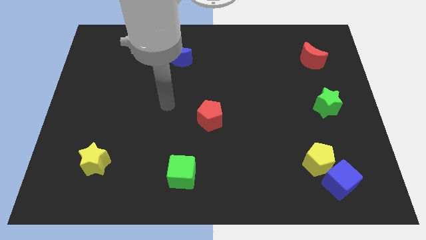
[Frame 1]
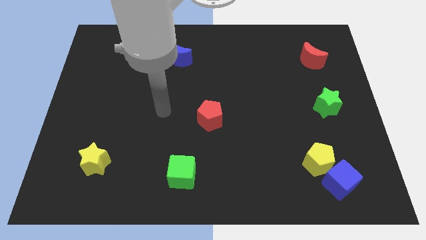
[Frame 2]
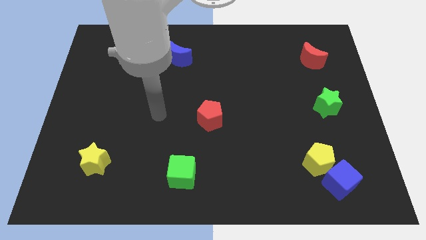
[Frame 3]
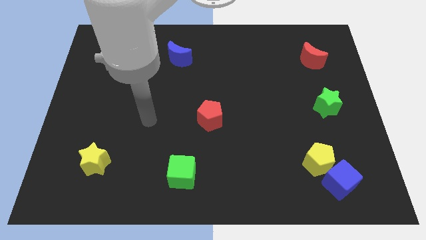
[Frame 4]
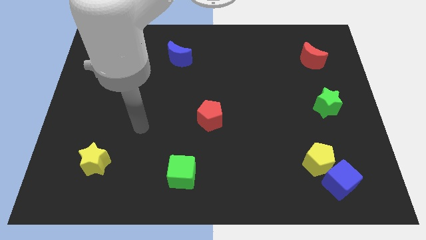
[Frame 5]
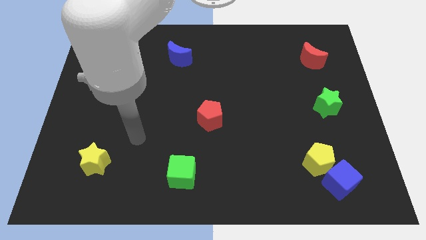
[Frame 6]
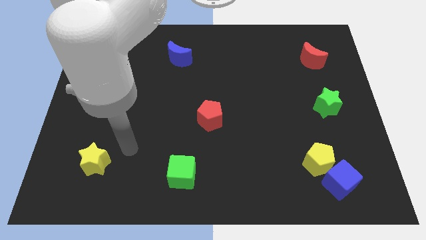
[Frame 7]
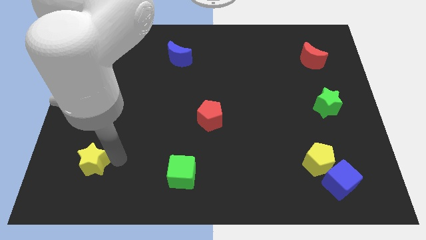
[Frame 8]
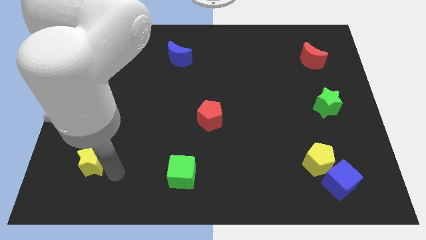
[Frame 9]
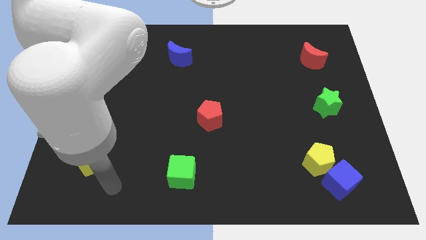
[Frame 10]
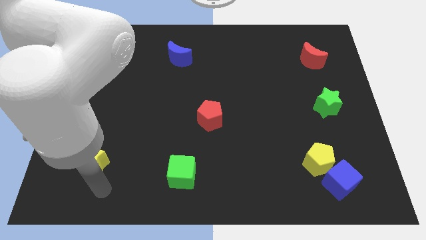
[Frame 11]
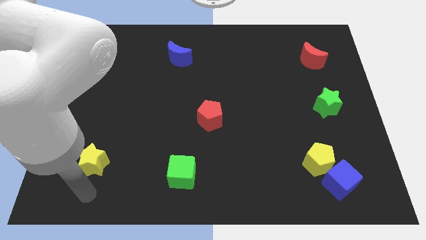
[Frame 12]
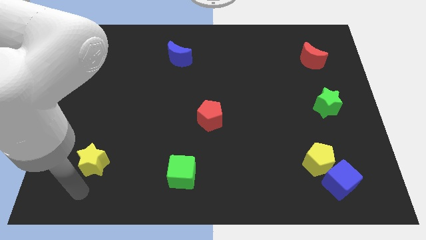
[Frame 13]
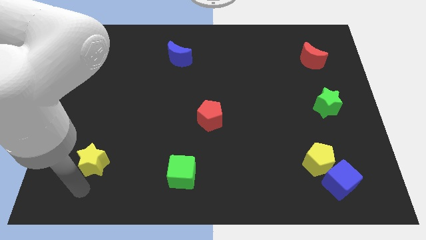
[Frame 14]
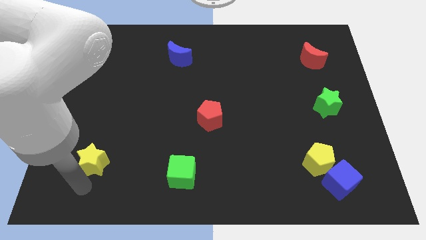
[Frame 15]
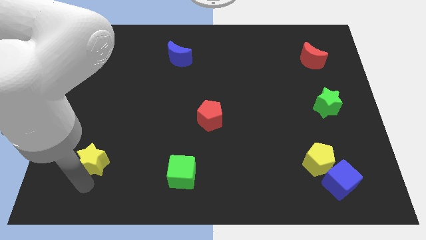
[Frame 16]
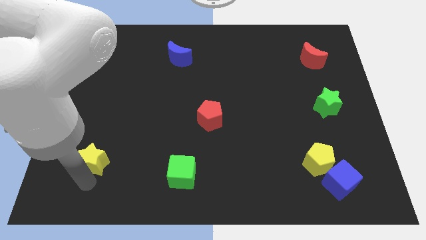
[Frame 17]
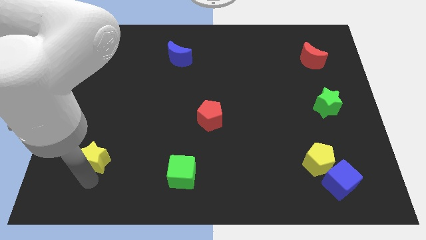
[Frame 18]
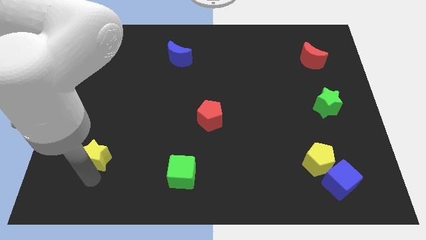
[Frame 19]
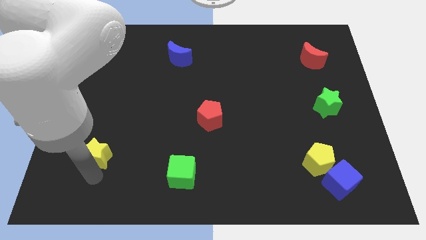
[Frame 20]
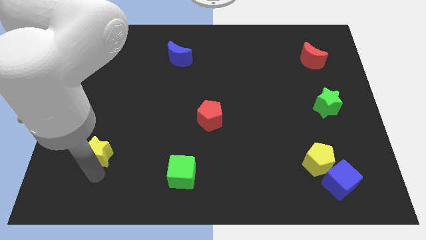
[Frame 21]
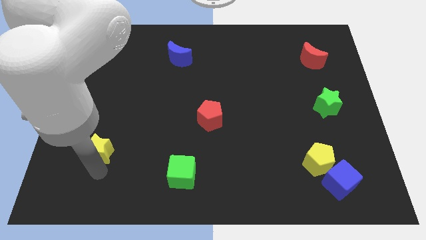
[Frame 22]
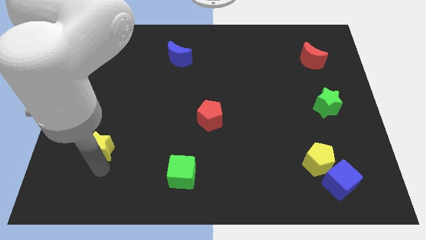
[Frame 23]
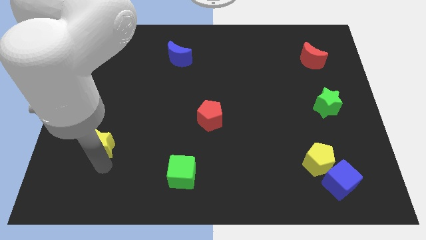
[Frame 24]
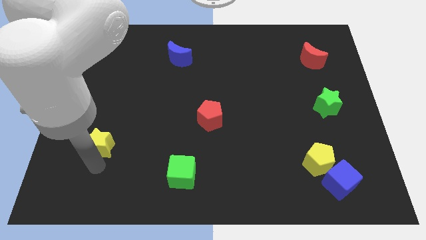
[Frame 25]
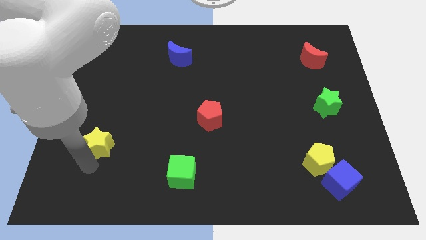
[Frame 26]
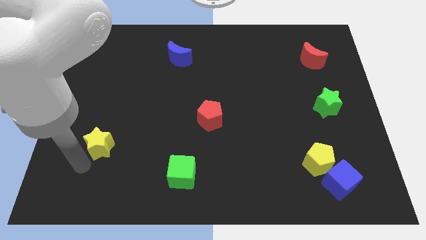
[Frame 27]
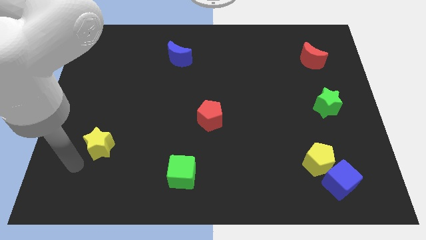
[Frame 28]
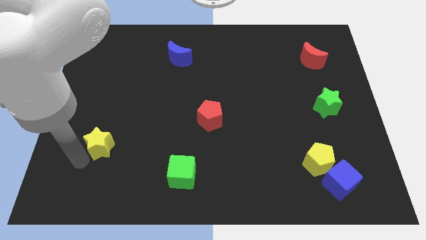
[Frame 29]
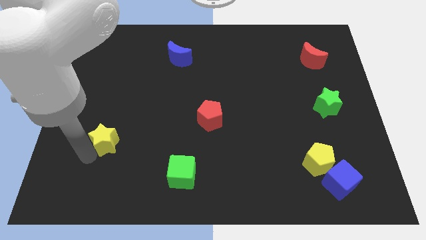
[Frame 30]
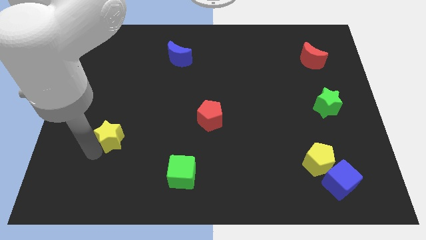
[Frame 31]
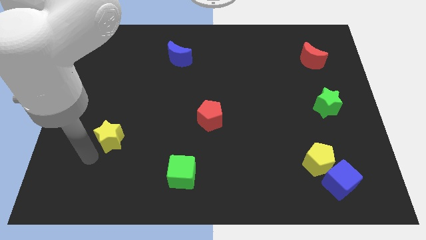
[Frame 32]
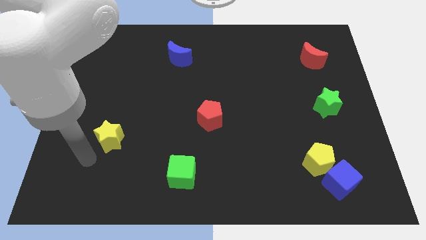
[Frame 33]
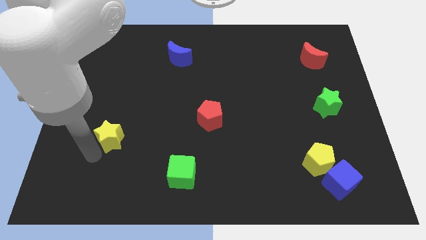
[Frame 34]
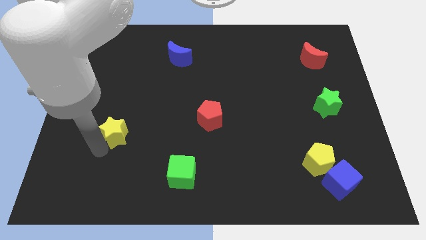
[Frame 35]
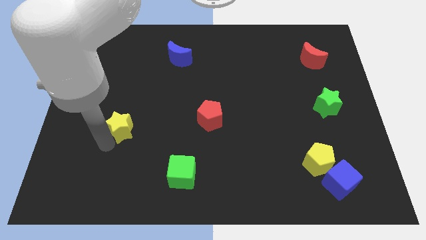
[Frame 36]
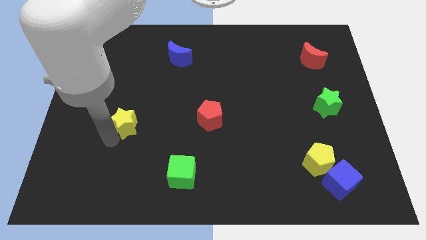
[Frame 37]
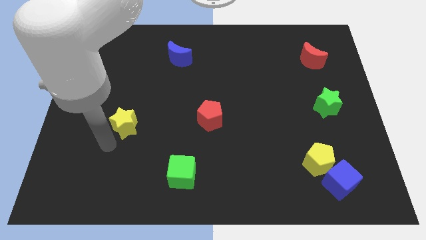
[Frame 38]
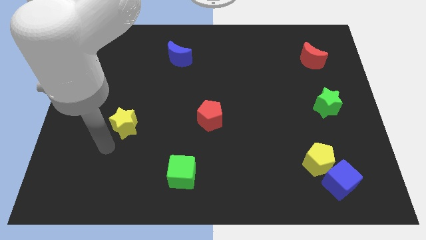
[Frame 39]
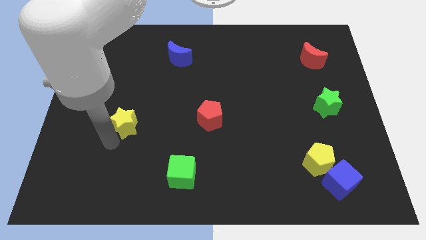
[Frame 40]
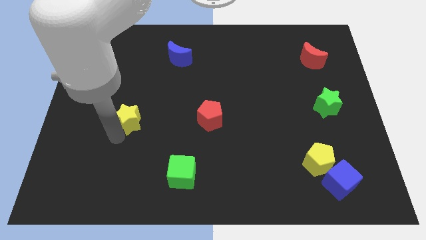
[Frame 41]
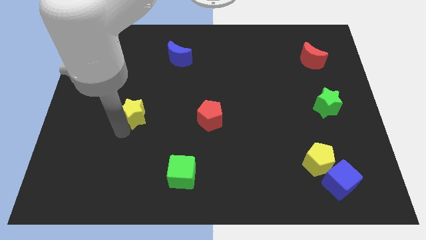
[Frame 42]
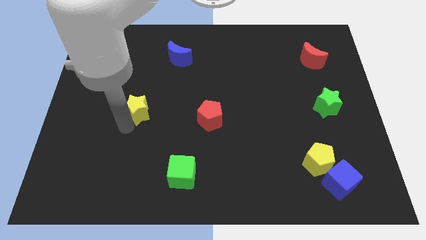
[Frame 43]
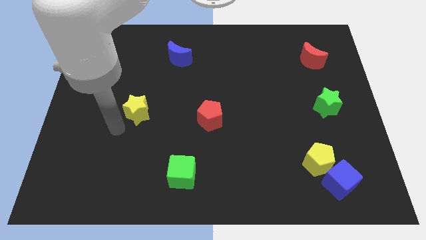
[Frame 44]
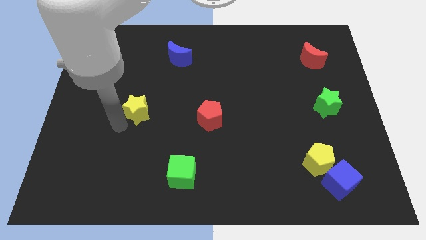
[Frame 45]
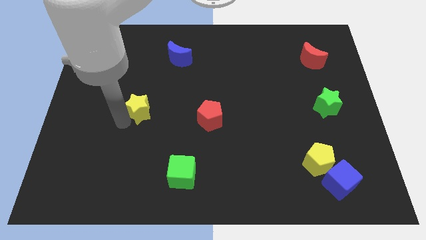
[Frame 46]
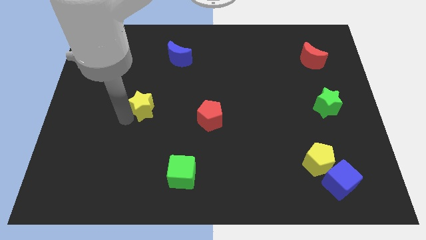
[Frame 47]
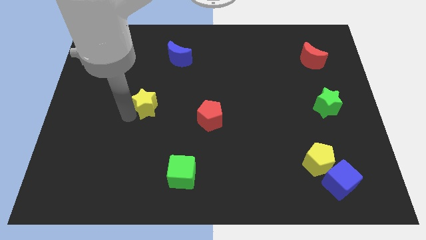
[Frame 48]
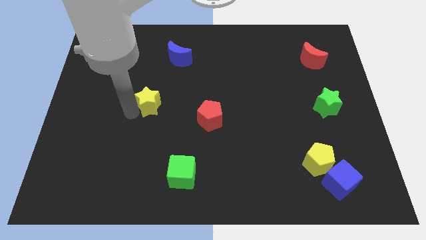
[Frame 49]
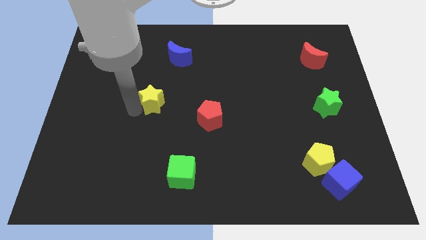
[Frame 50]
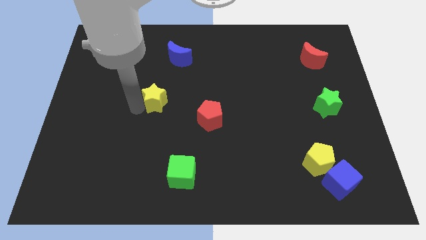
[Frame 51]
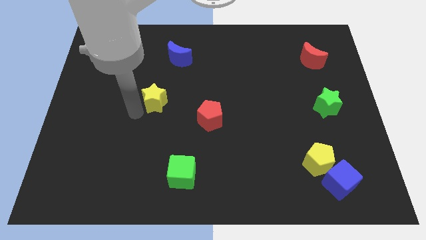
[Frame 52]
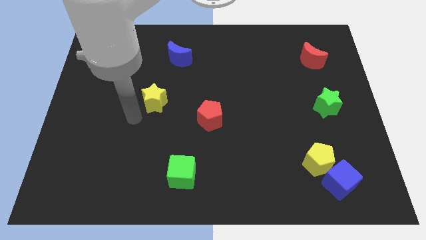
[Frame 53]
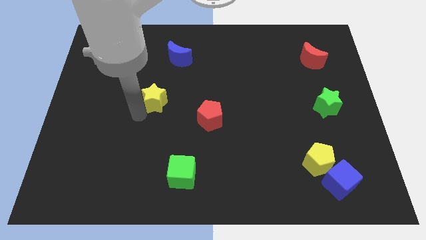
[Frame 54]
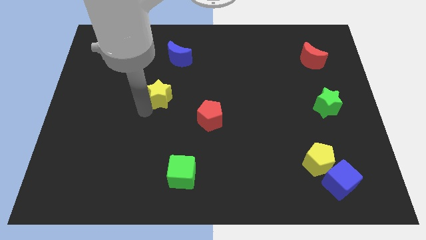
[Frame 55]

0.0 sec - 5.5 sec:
slide the yellow star below the blue moon

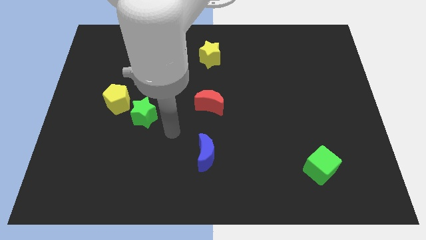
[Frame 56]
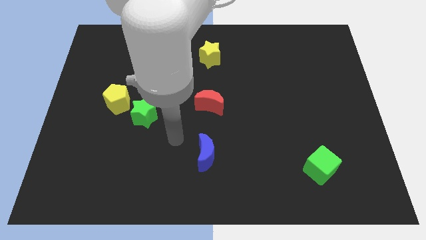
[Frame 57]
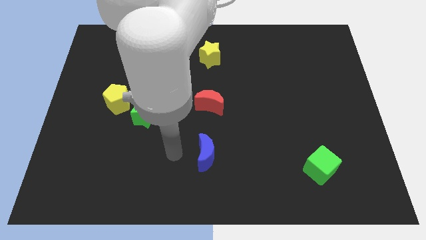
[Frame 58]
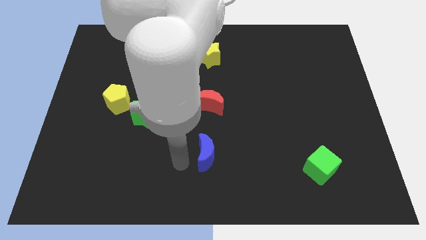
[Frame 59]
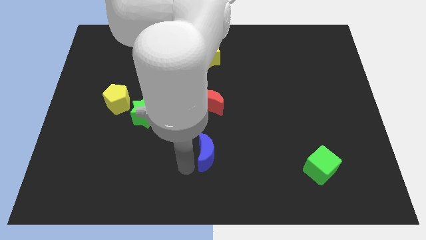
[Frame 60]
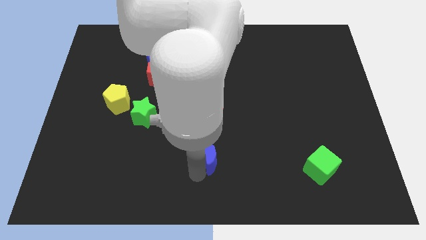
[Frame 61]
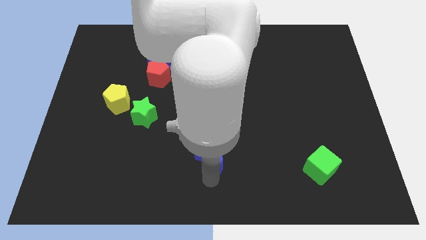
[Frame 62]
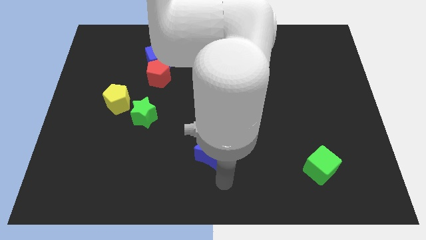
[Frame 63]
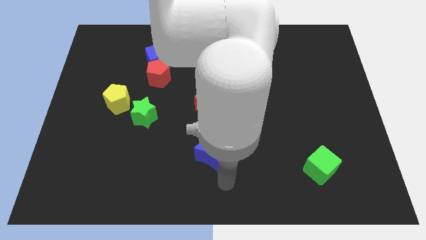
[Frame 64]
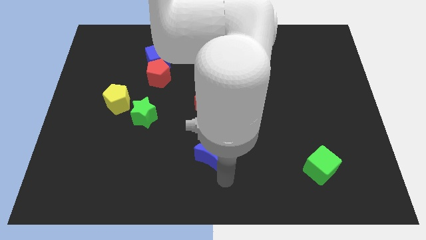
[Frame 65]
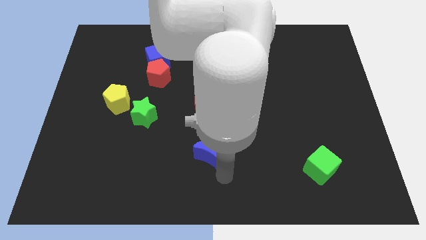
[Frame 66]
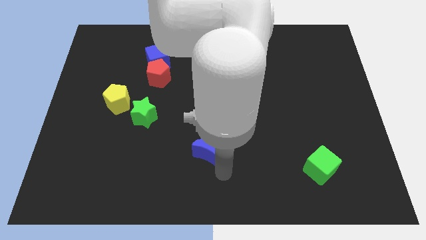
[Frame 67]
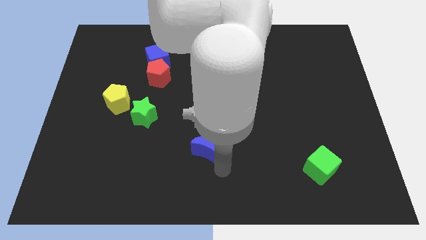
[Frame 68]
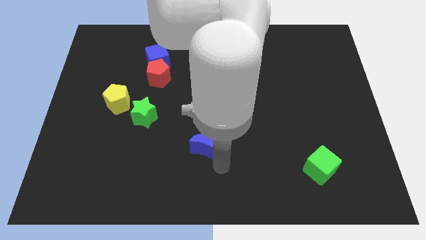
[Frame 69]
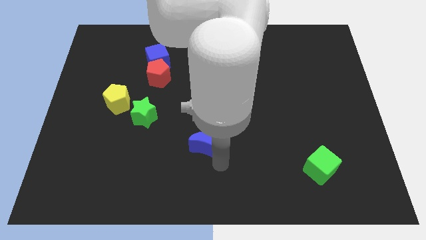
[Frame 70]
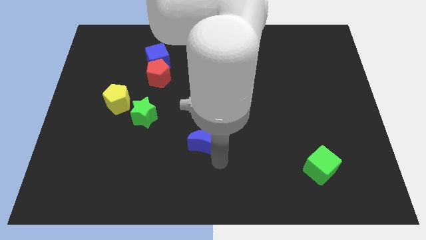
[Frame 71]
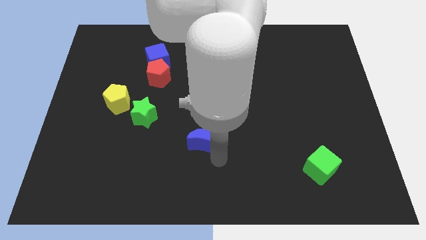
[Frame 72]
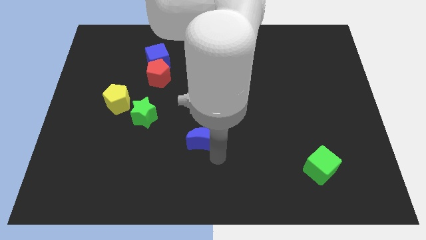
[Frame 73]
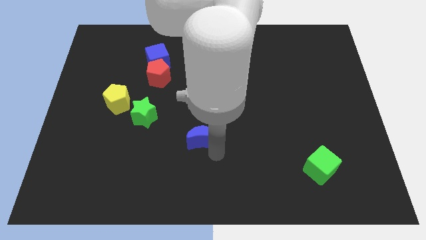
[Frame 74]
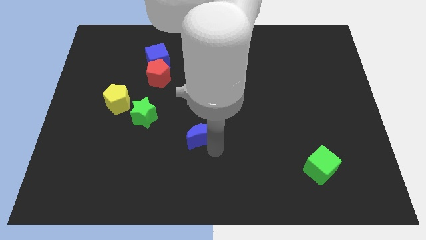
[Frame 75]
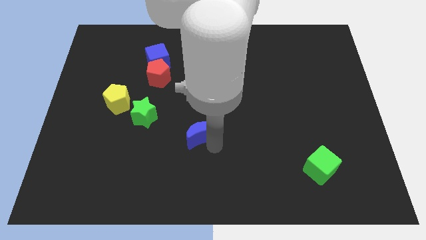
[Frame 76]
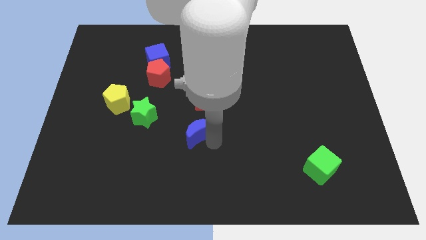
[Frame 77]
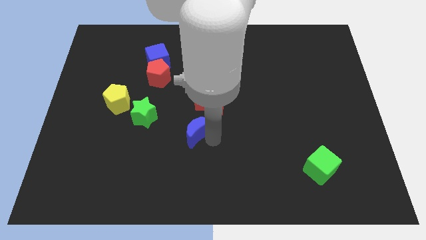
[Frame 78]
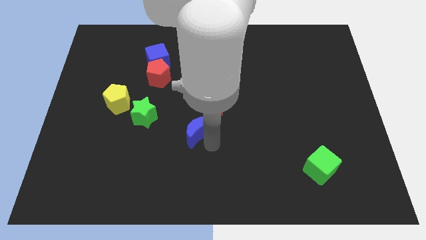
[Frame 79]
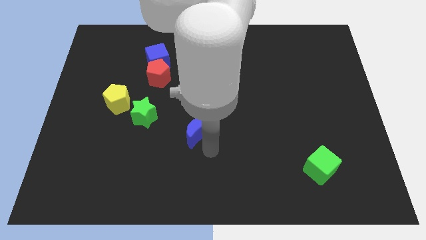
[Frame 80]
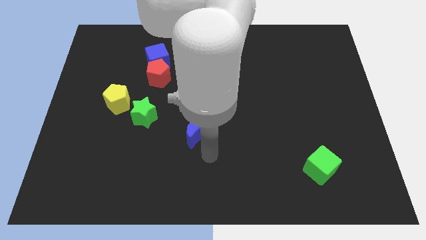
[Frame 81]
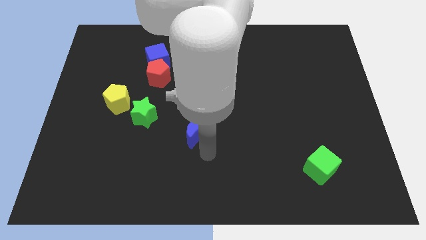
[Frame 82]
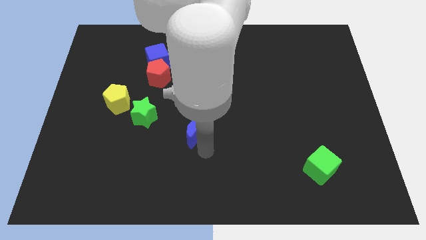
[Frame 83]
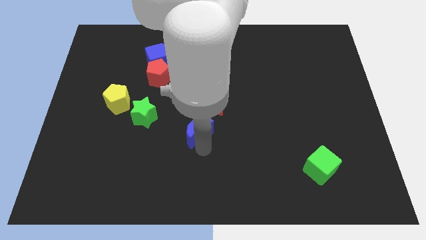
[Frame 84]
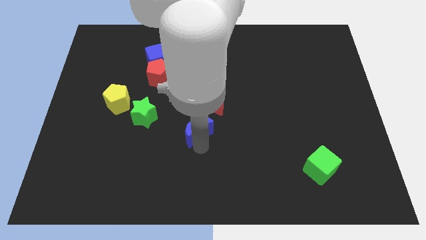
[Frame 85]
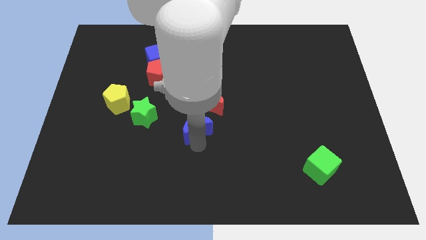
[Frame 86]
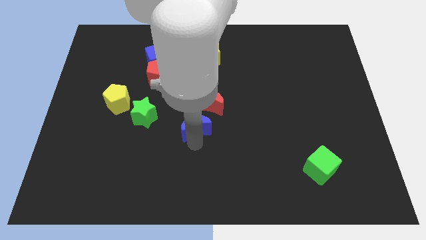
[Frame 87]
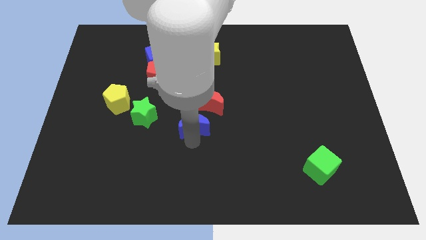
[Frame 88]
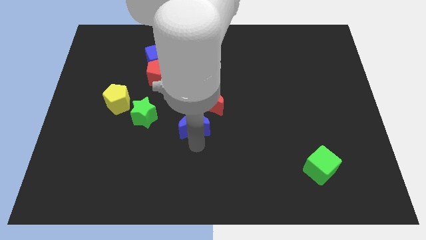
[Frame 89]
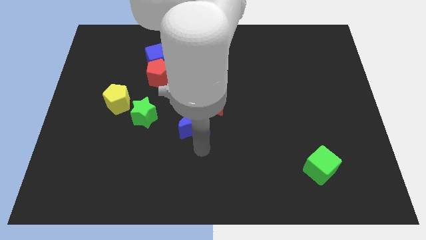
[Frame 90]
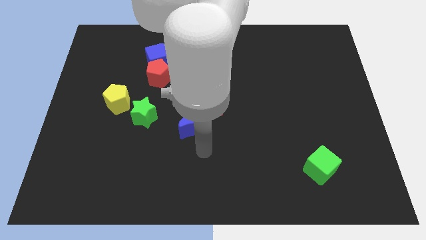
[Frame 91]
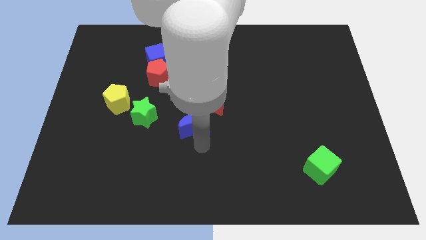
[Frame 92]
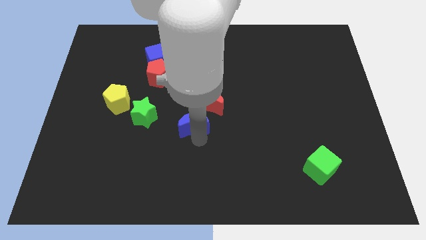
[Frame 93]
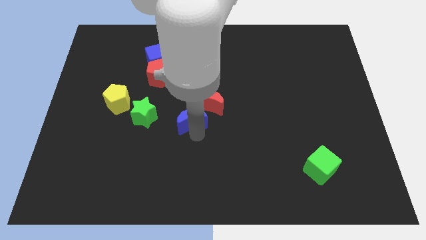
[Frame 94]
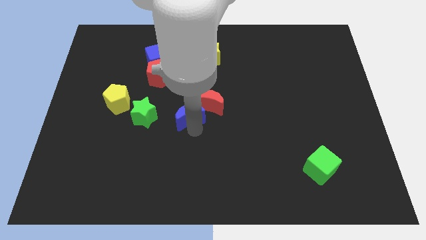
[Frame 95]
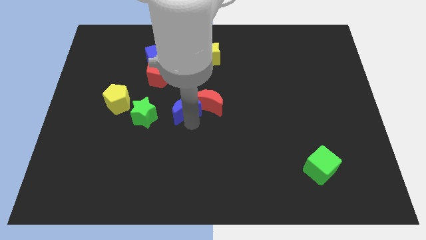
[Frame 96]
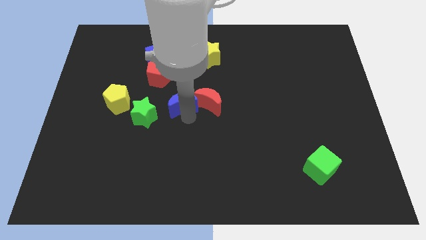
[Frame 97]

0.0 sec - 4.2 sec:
move the blue moon to the bottom right side of the red pentagon
